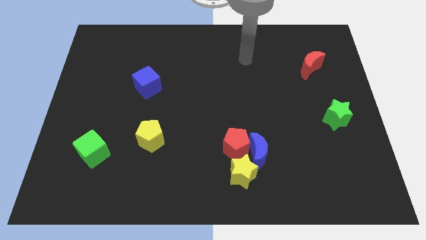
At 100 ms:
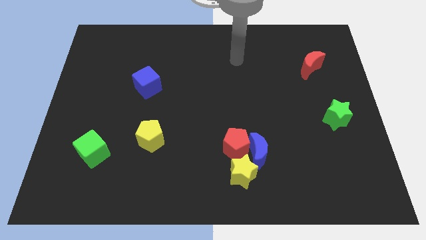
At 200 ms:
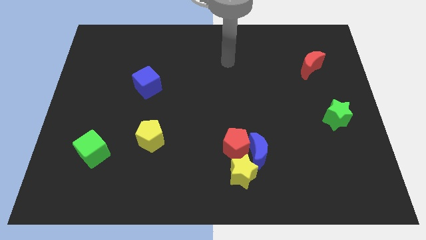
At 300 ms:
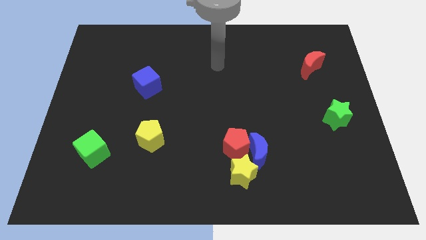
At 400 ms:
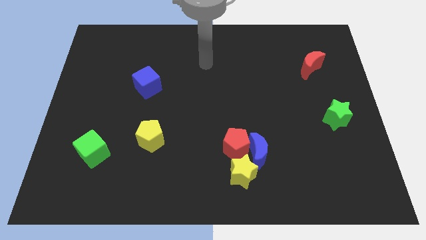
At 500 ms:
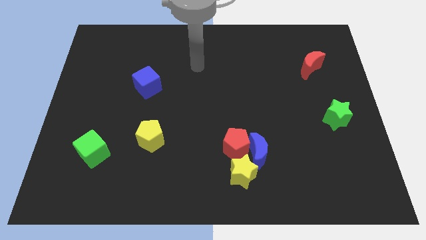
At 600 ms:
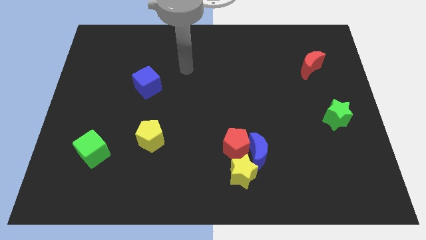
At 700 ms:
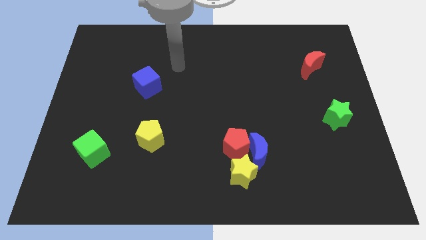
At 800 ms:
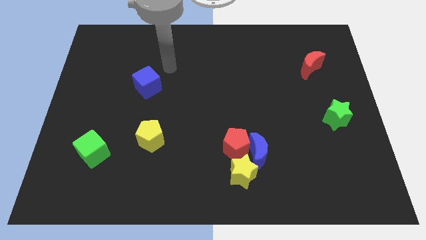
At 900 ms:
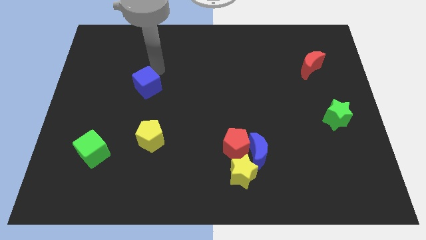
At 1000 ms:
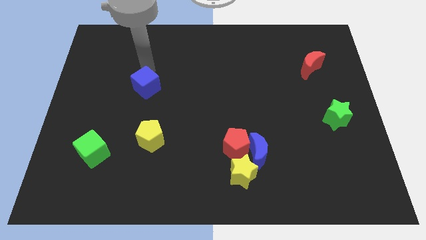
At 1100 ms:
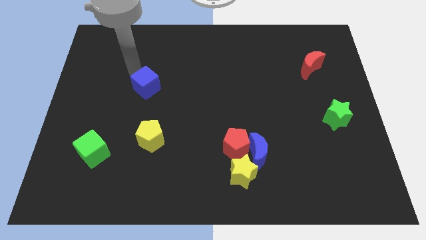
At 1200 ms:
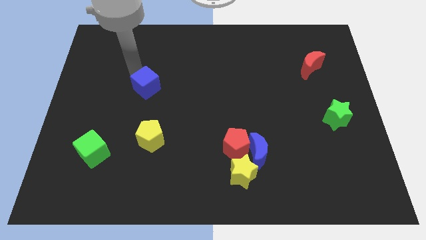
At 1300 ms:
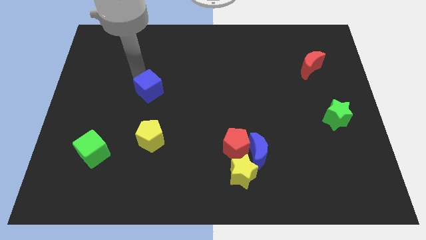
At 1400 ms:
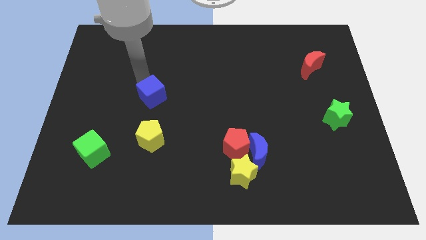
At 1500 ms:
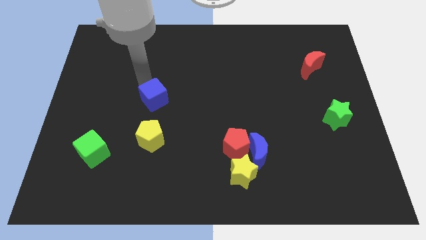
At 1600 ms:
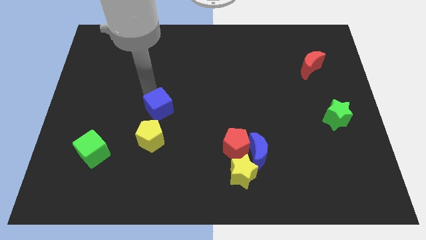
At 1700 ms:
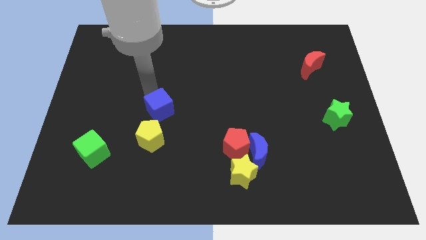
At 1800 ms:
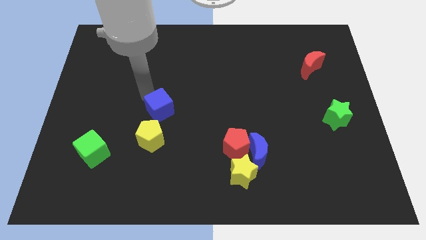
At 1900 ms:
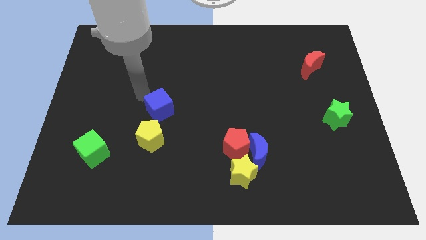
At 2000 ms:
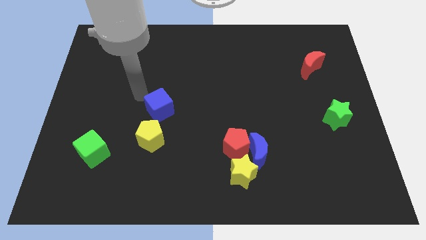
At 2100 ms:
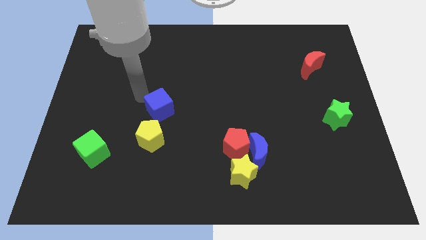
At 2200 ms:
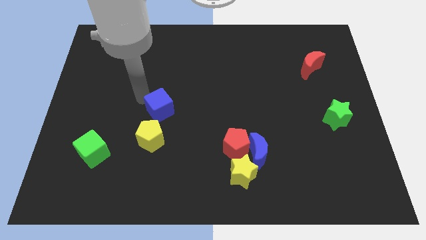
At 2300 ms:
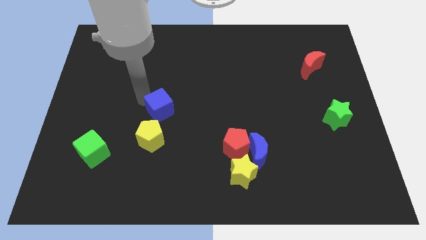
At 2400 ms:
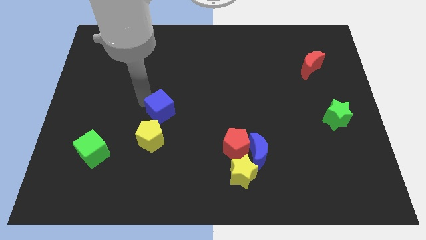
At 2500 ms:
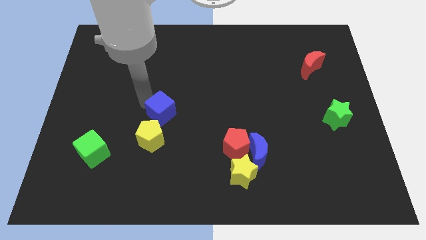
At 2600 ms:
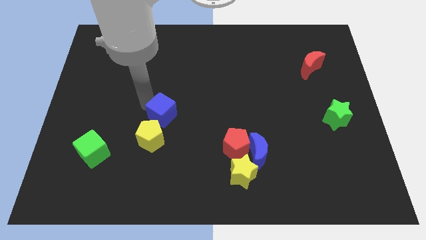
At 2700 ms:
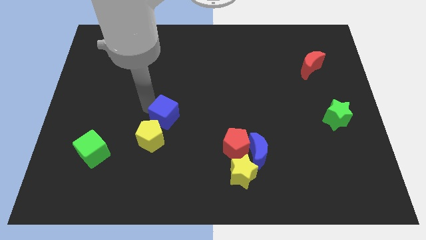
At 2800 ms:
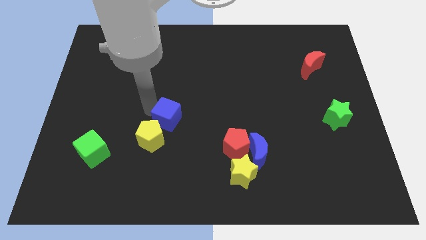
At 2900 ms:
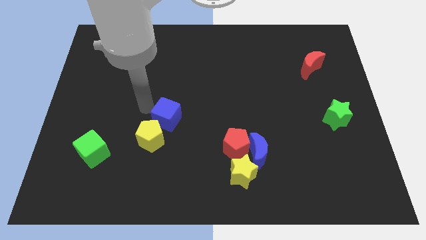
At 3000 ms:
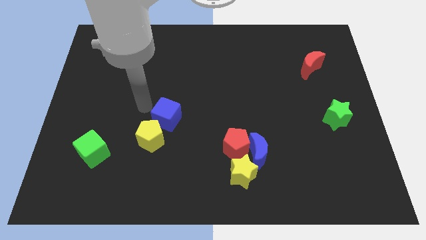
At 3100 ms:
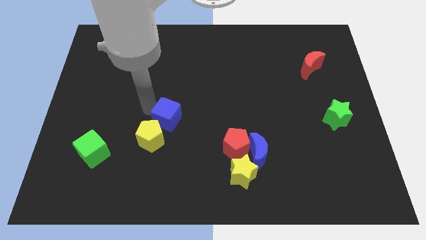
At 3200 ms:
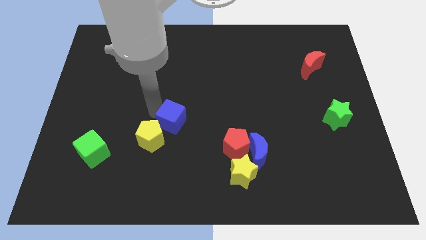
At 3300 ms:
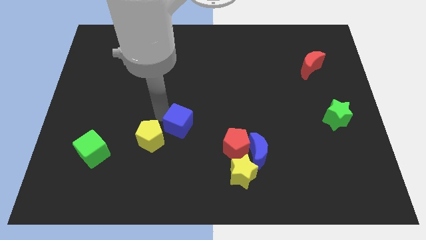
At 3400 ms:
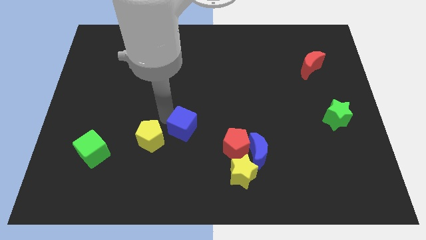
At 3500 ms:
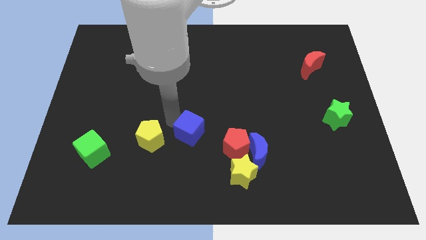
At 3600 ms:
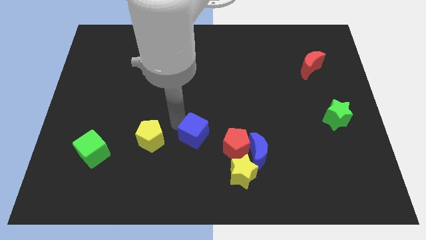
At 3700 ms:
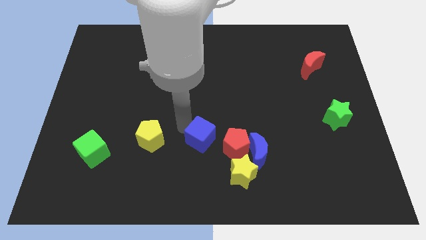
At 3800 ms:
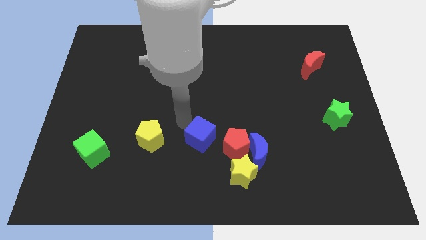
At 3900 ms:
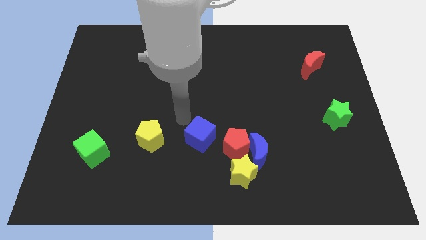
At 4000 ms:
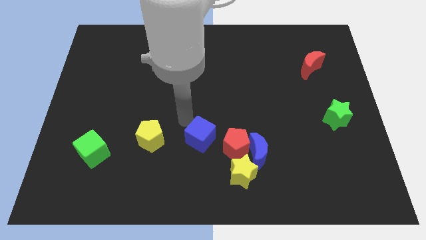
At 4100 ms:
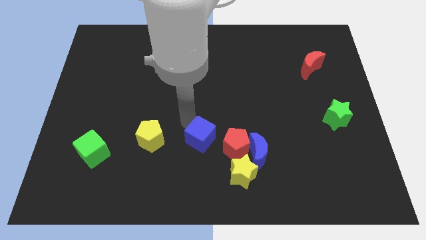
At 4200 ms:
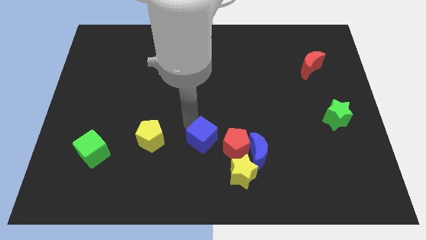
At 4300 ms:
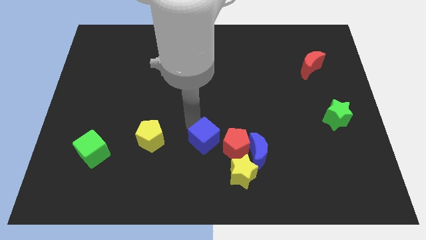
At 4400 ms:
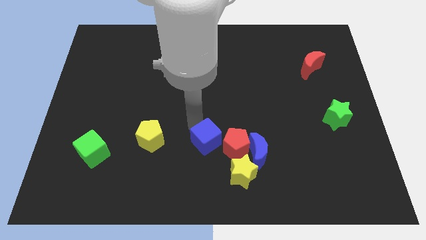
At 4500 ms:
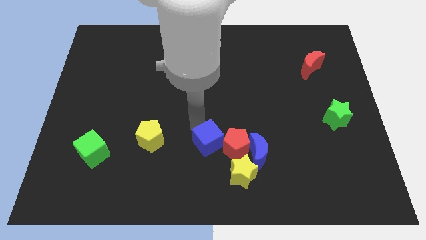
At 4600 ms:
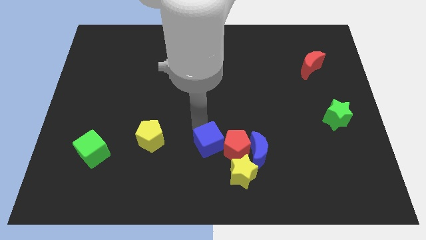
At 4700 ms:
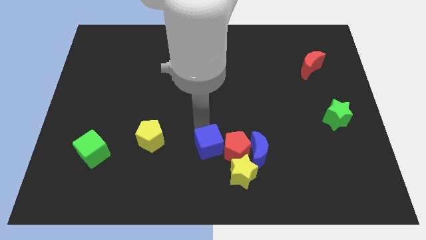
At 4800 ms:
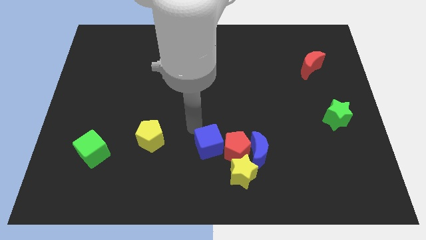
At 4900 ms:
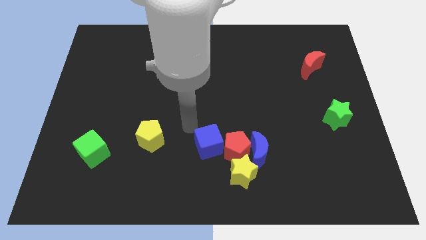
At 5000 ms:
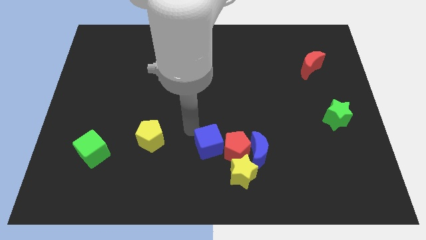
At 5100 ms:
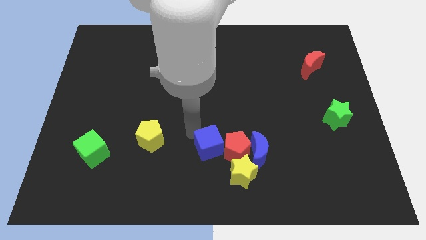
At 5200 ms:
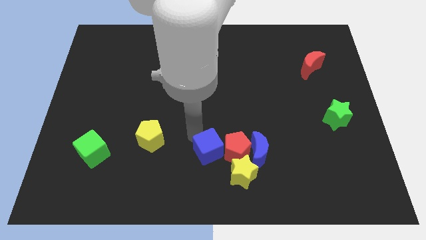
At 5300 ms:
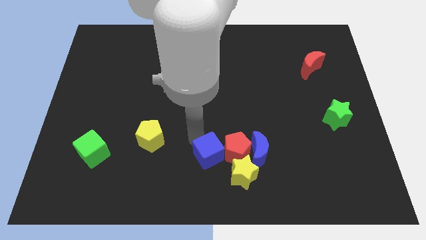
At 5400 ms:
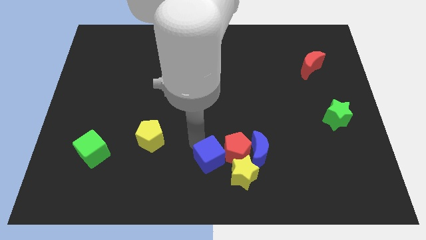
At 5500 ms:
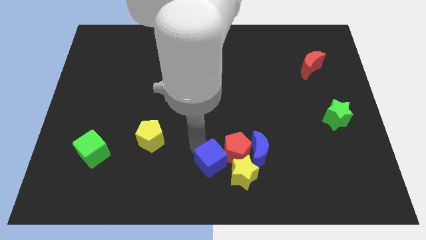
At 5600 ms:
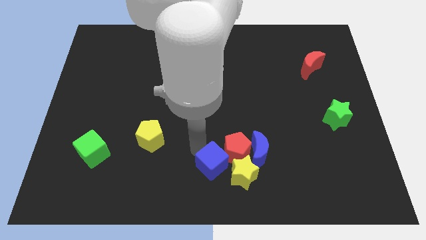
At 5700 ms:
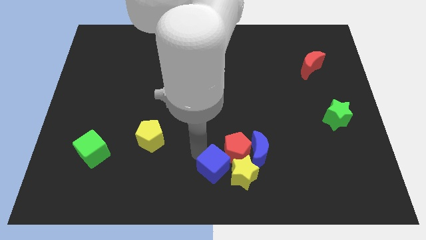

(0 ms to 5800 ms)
move the blue cube close to the yellow star

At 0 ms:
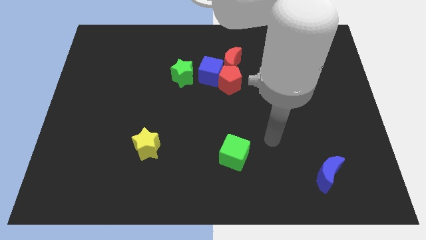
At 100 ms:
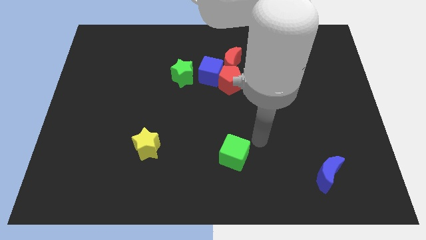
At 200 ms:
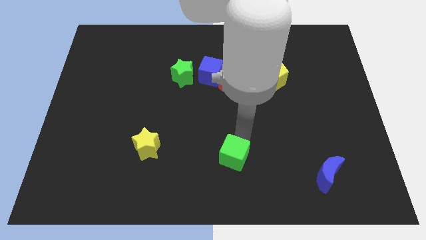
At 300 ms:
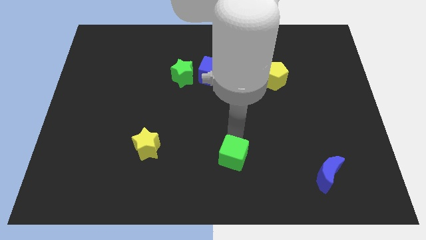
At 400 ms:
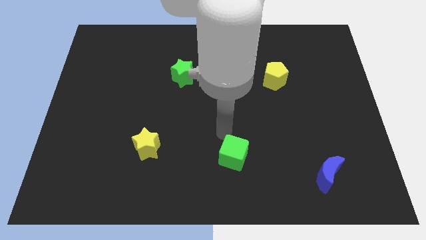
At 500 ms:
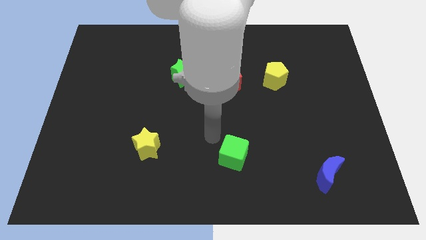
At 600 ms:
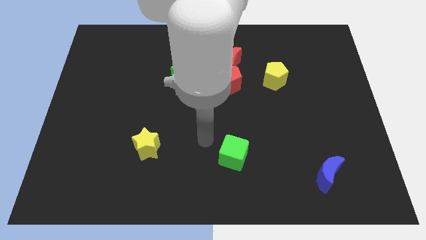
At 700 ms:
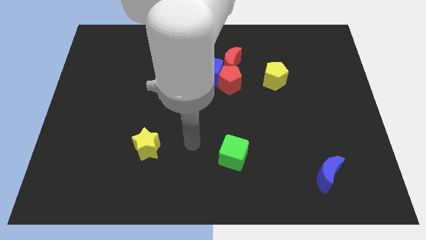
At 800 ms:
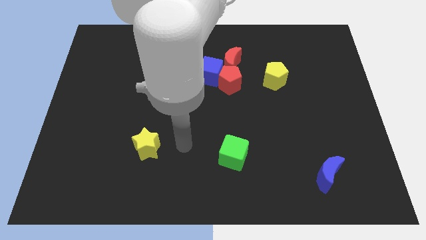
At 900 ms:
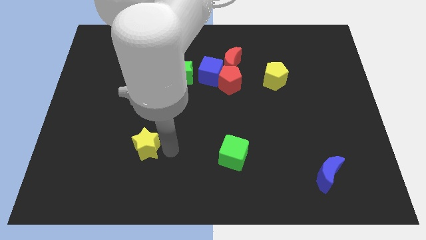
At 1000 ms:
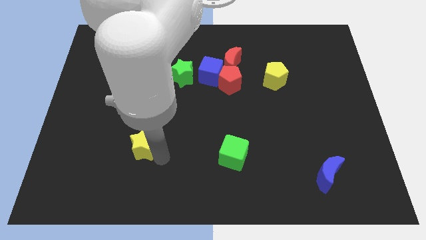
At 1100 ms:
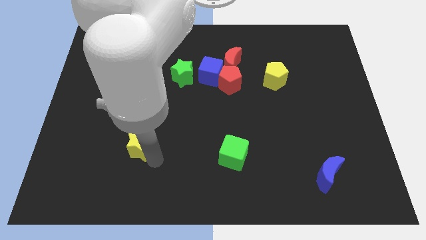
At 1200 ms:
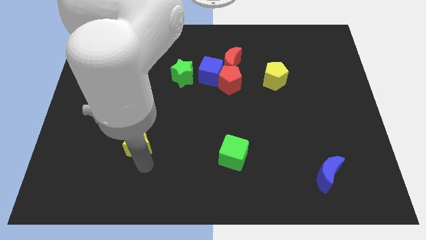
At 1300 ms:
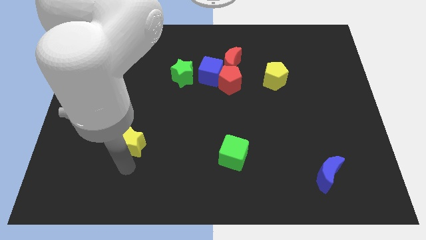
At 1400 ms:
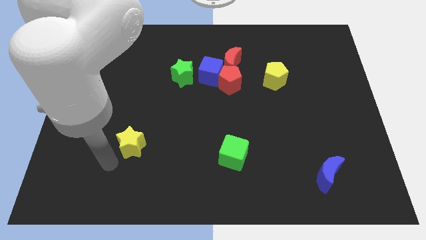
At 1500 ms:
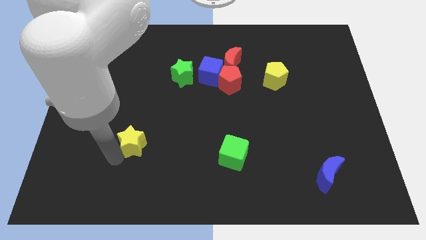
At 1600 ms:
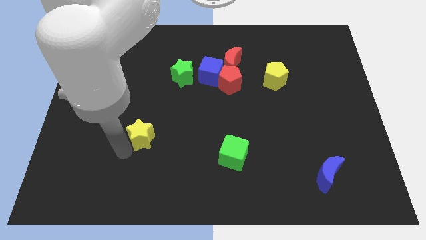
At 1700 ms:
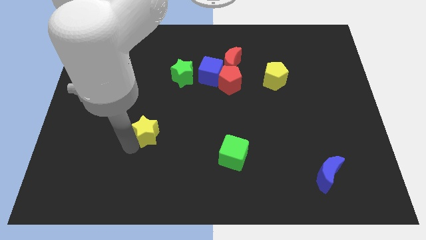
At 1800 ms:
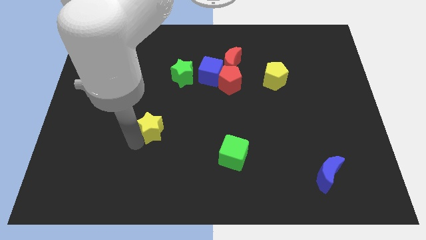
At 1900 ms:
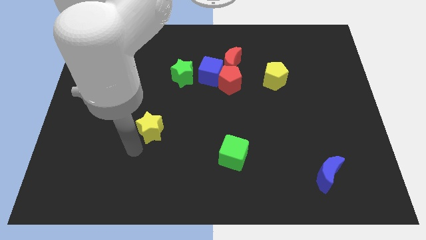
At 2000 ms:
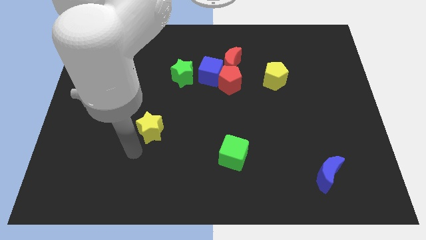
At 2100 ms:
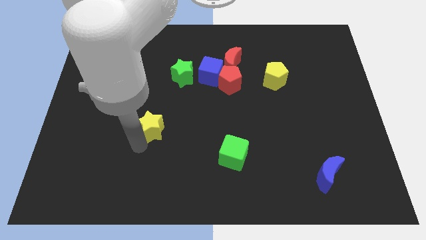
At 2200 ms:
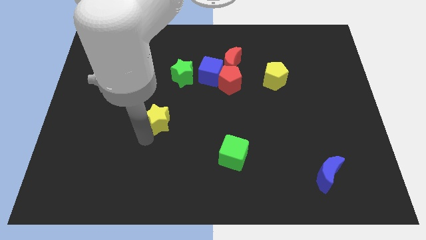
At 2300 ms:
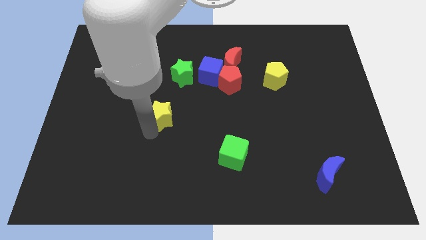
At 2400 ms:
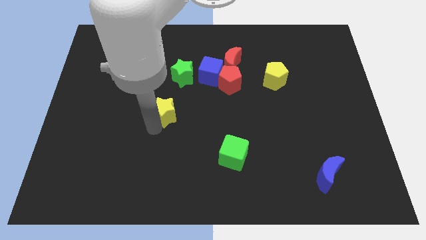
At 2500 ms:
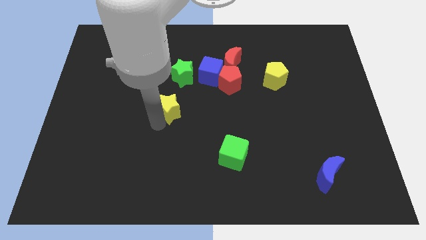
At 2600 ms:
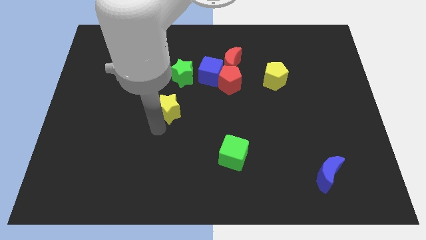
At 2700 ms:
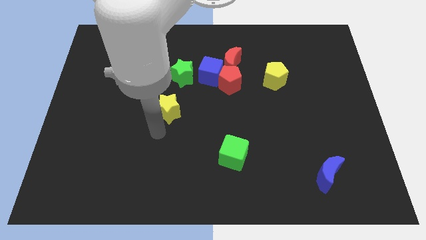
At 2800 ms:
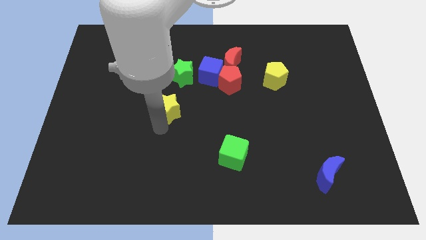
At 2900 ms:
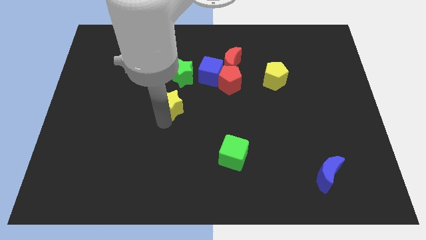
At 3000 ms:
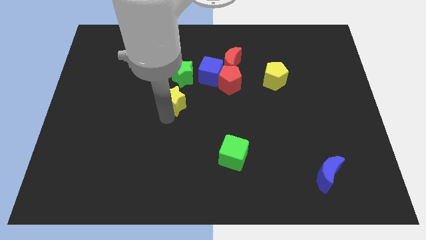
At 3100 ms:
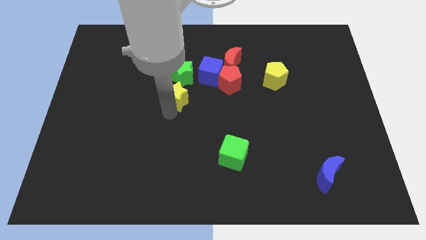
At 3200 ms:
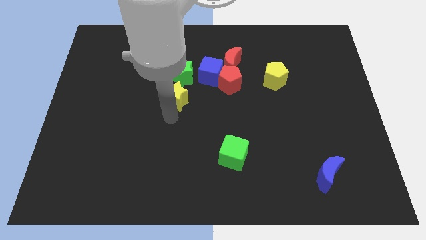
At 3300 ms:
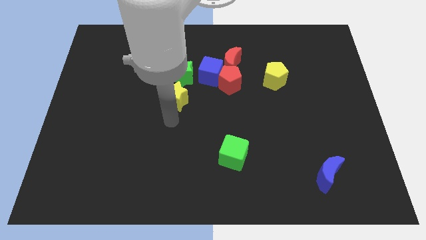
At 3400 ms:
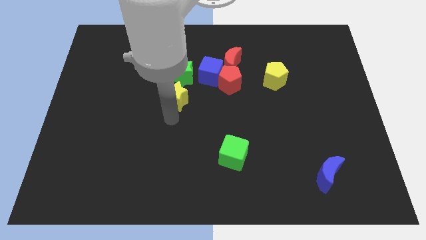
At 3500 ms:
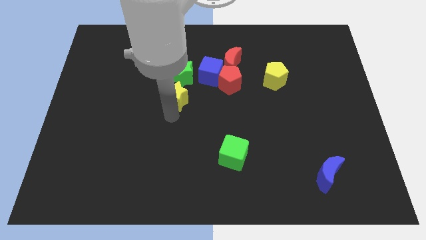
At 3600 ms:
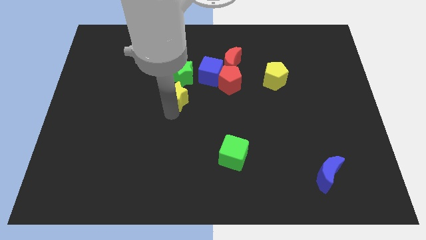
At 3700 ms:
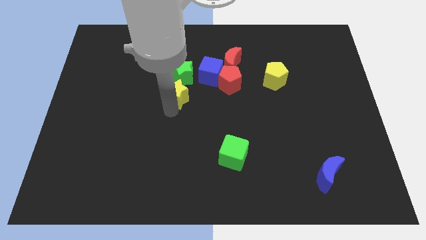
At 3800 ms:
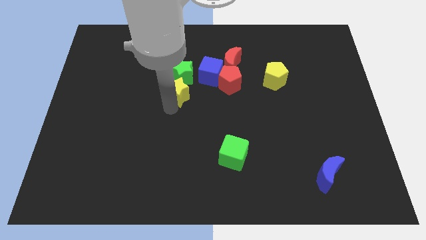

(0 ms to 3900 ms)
move the yellow star to the green star
